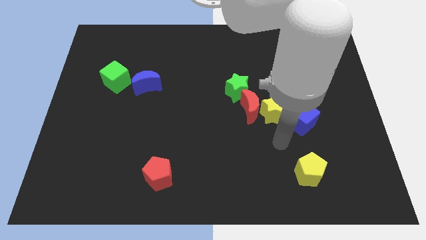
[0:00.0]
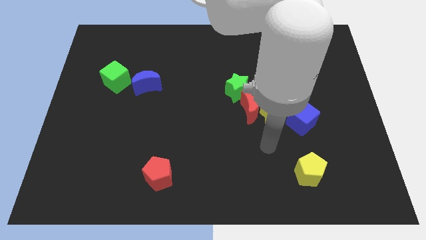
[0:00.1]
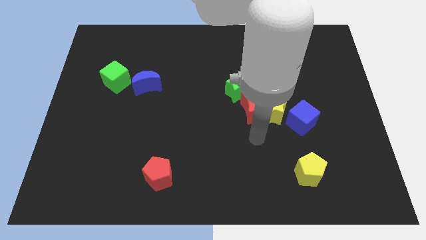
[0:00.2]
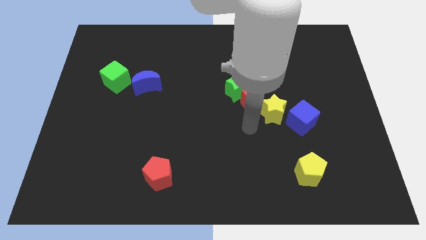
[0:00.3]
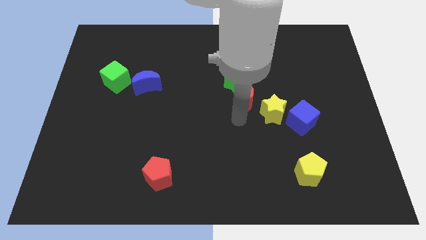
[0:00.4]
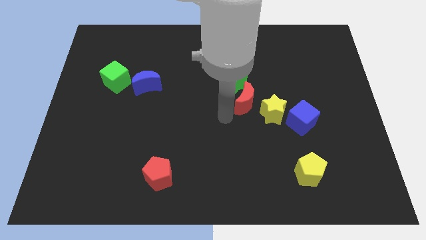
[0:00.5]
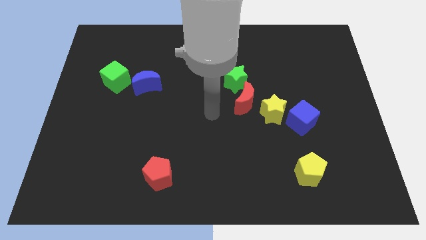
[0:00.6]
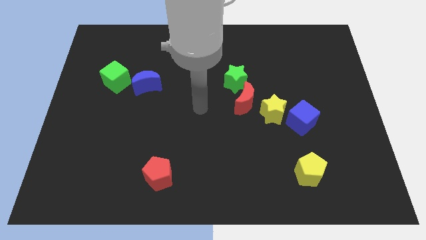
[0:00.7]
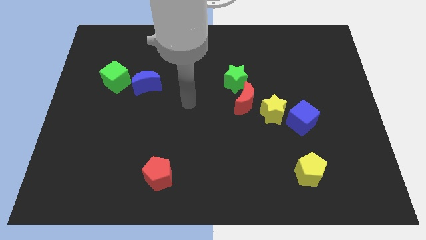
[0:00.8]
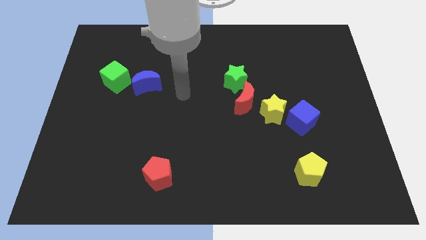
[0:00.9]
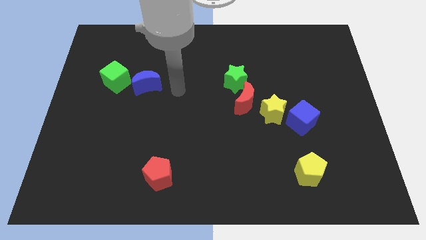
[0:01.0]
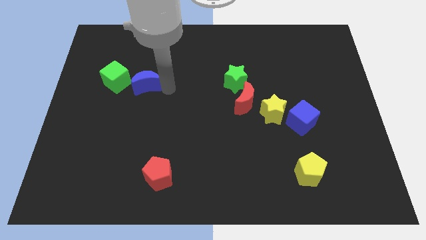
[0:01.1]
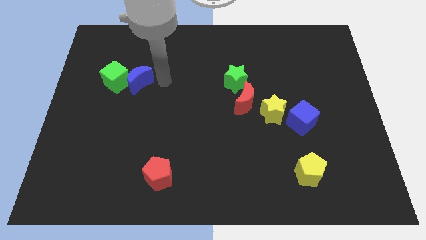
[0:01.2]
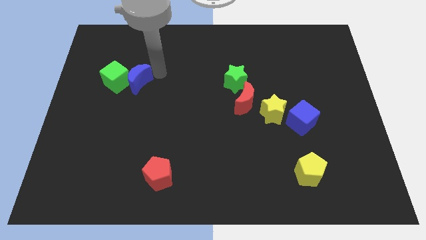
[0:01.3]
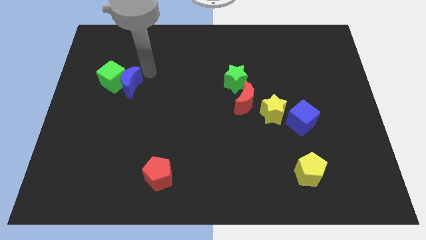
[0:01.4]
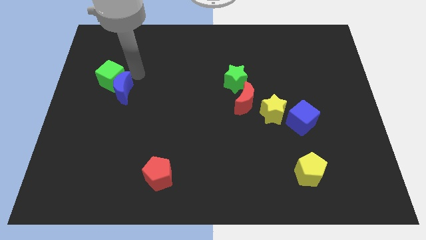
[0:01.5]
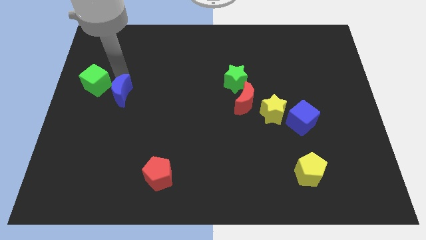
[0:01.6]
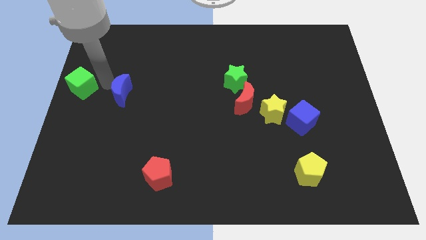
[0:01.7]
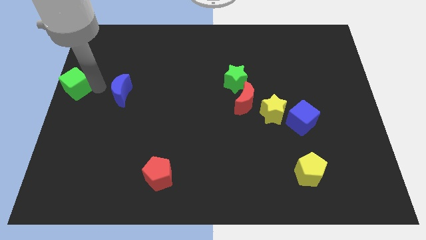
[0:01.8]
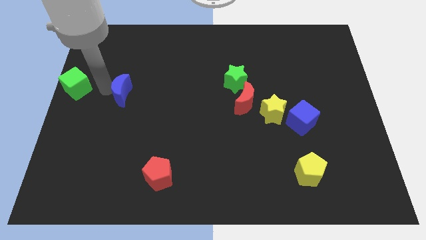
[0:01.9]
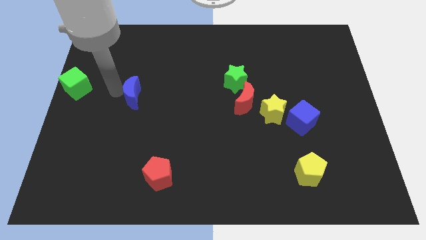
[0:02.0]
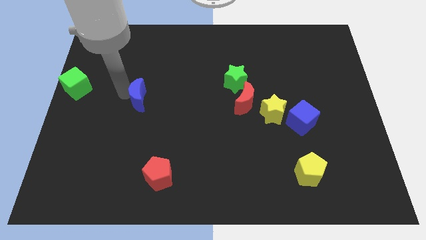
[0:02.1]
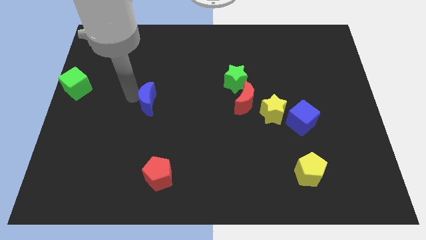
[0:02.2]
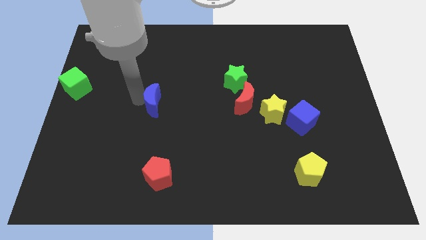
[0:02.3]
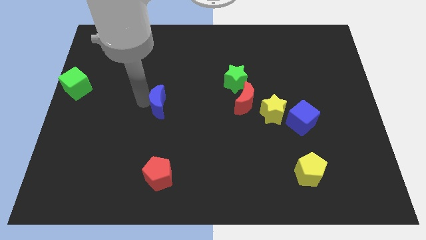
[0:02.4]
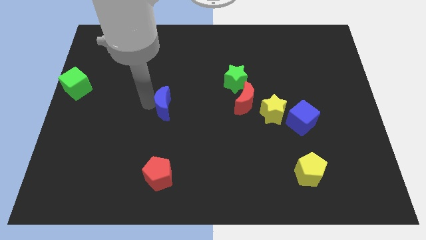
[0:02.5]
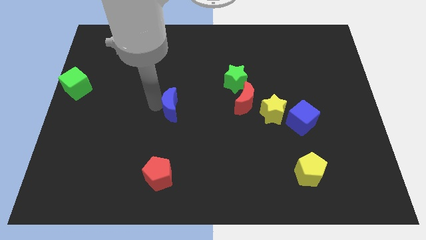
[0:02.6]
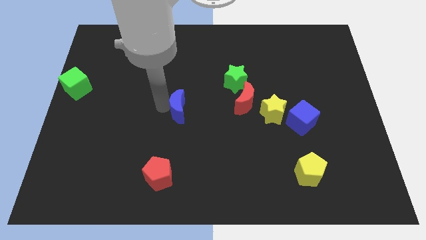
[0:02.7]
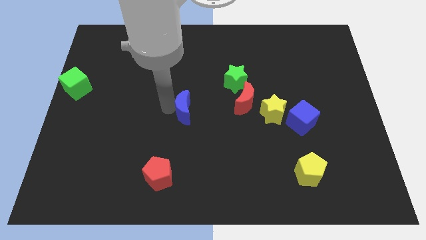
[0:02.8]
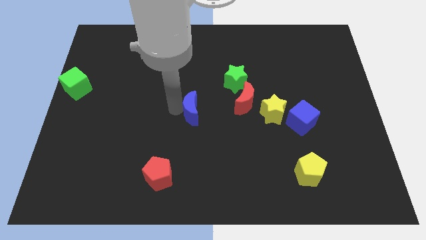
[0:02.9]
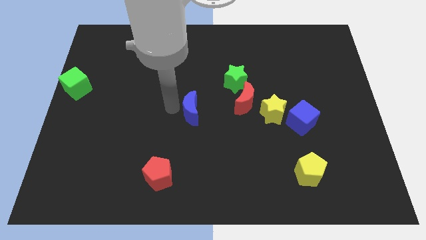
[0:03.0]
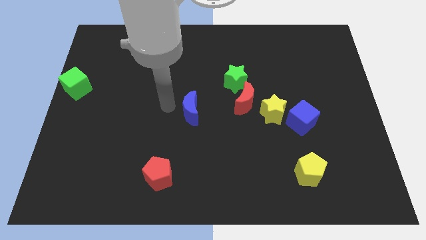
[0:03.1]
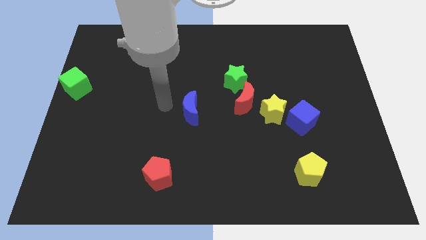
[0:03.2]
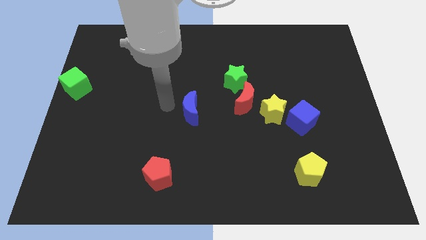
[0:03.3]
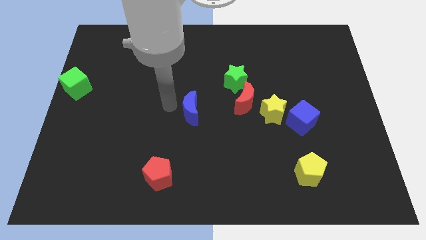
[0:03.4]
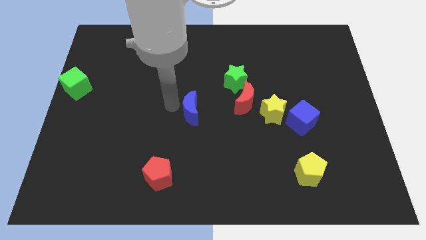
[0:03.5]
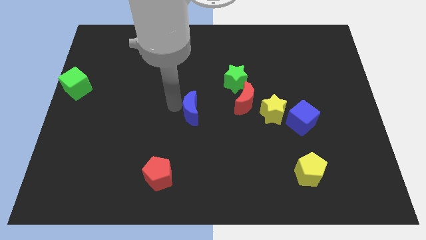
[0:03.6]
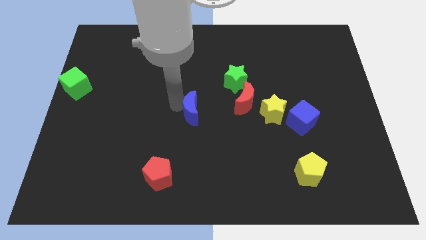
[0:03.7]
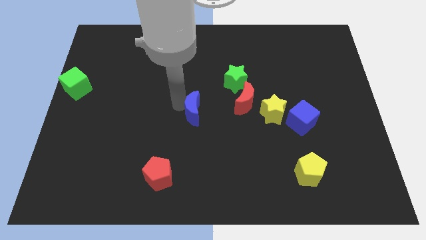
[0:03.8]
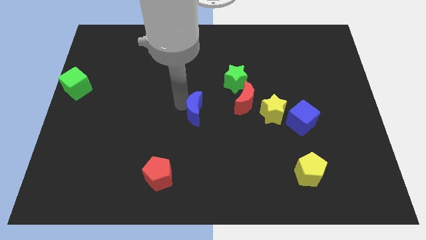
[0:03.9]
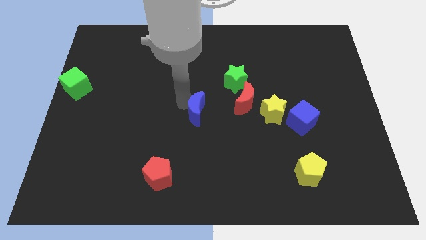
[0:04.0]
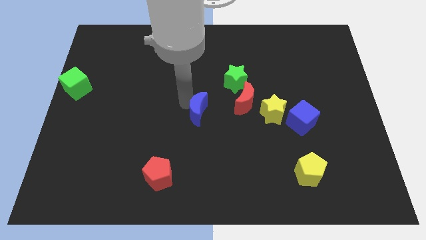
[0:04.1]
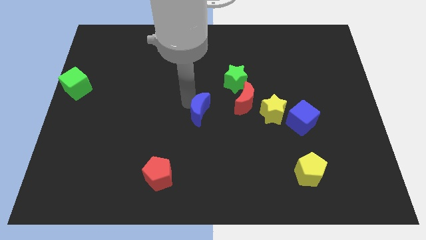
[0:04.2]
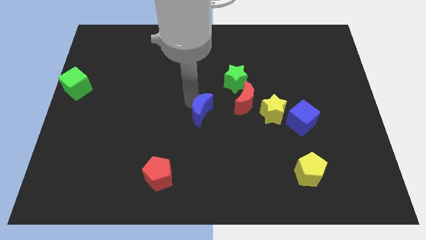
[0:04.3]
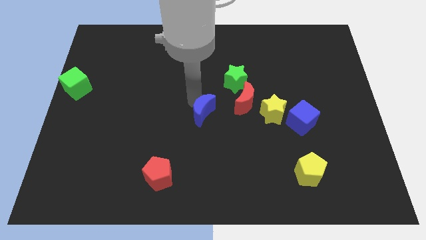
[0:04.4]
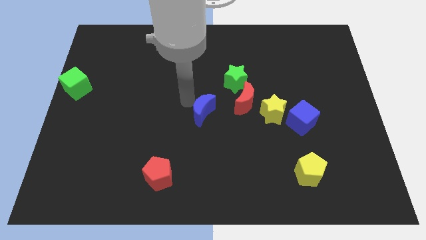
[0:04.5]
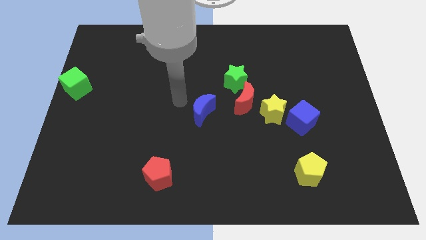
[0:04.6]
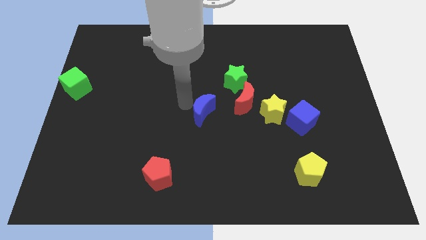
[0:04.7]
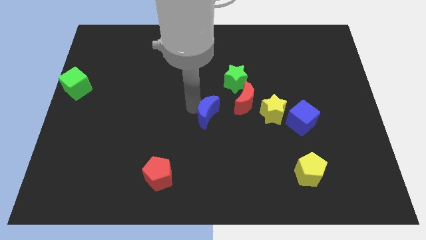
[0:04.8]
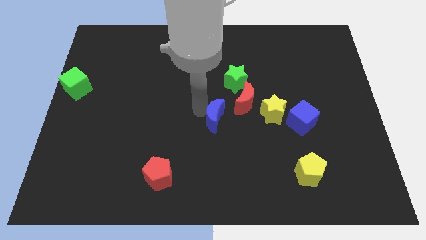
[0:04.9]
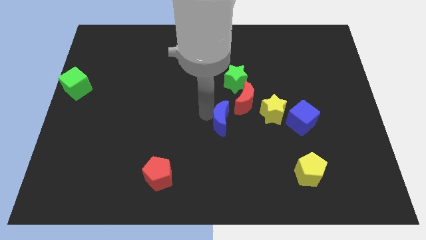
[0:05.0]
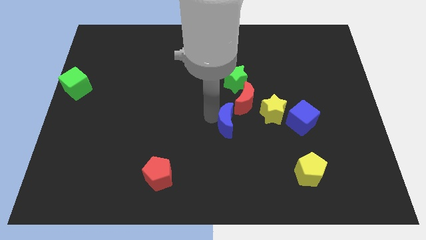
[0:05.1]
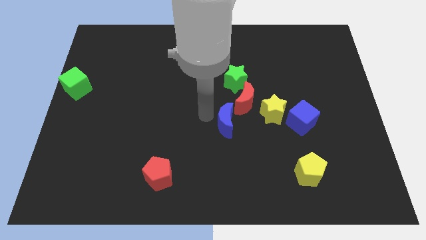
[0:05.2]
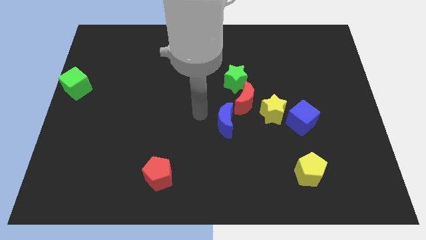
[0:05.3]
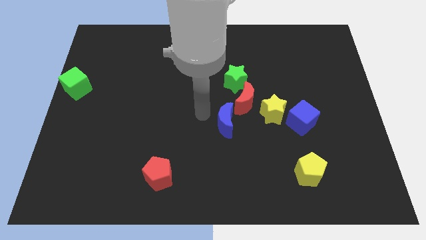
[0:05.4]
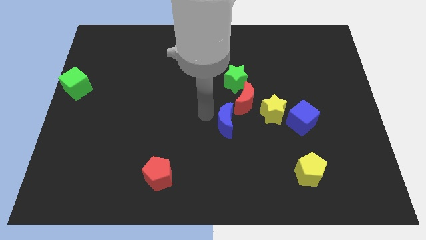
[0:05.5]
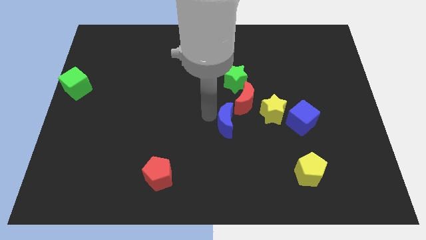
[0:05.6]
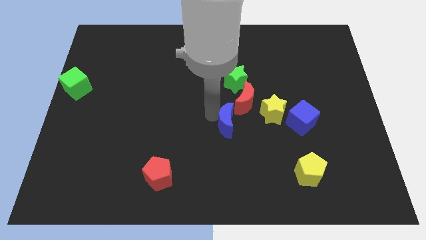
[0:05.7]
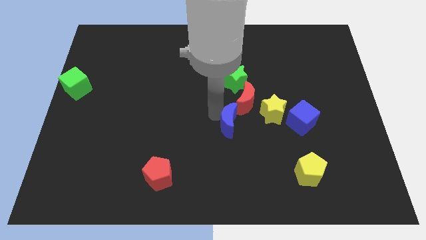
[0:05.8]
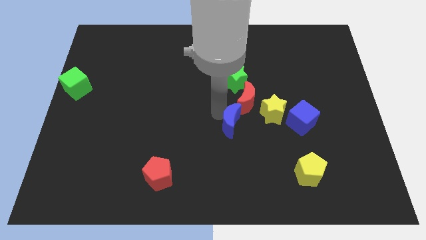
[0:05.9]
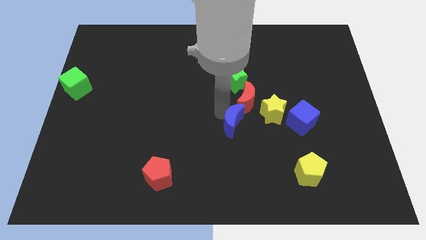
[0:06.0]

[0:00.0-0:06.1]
put the blue moon to the bottom left side of the yellow star

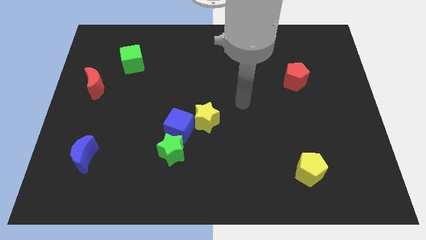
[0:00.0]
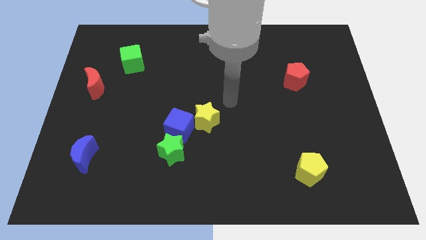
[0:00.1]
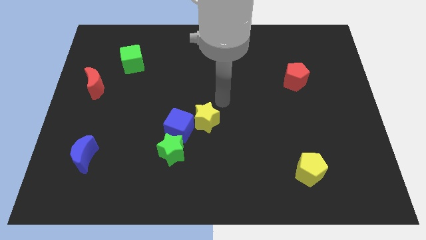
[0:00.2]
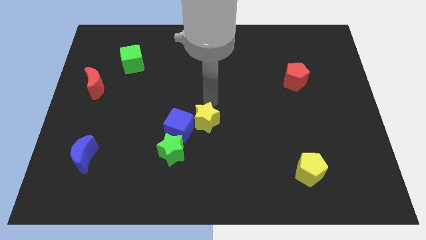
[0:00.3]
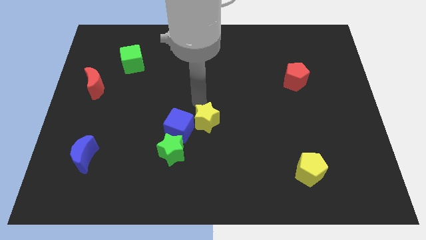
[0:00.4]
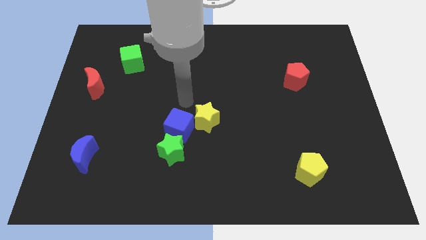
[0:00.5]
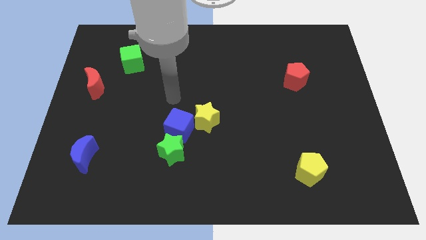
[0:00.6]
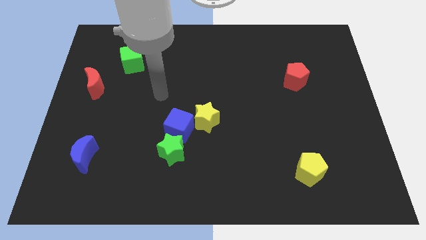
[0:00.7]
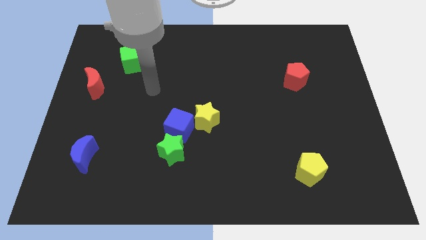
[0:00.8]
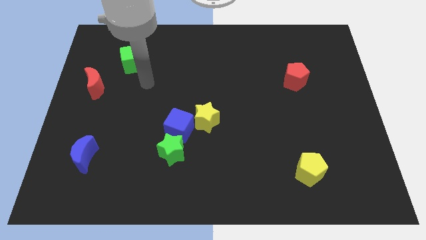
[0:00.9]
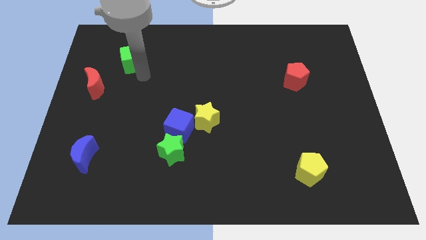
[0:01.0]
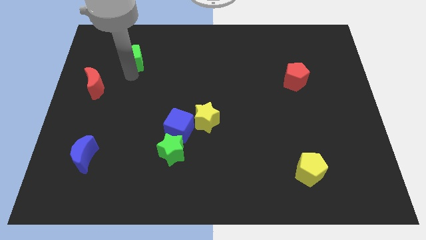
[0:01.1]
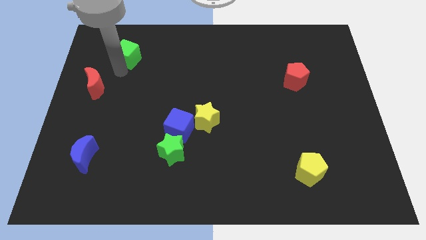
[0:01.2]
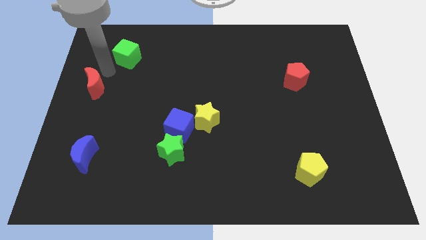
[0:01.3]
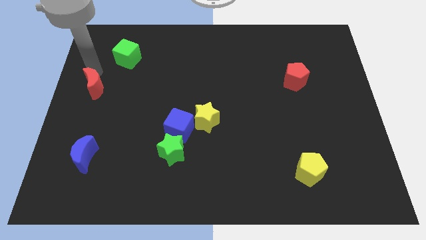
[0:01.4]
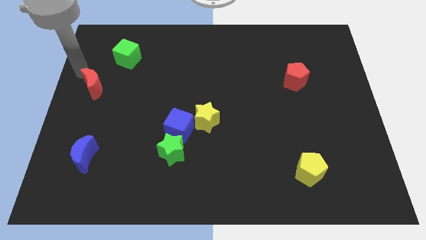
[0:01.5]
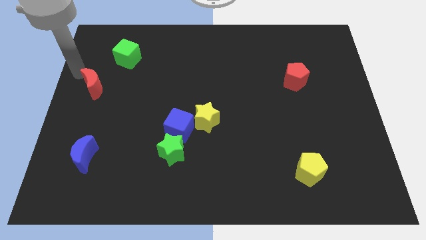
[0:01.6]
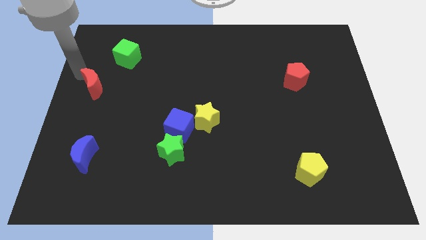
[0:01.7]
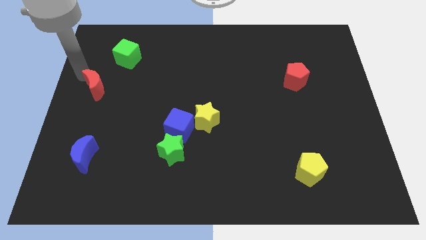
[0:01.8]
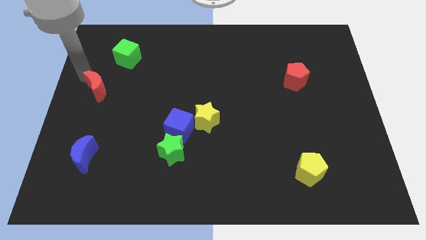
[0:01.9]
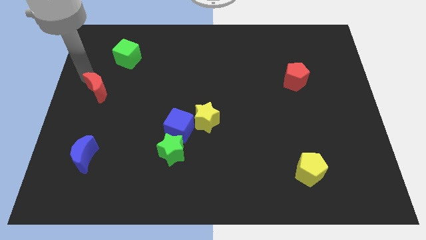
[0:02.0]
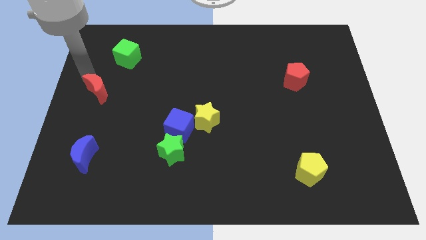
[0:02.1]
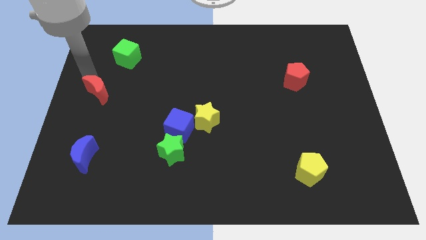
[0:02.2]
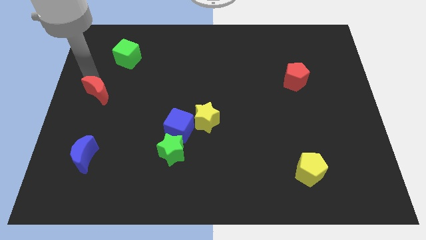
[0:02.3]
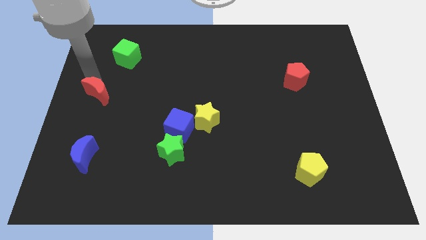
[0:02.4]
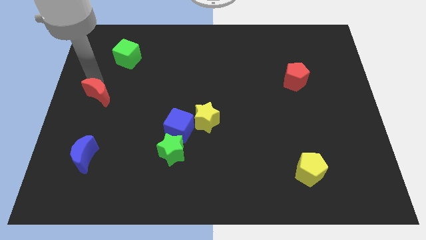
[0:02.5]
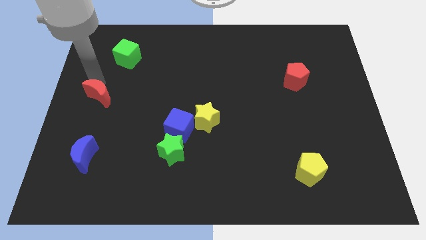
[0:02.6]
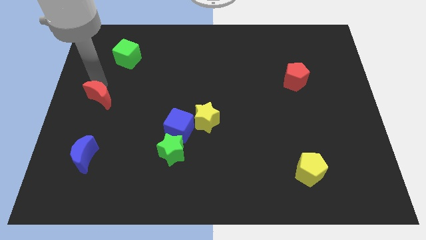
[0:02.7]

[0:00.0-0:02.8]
push the red moon to the top of the blue moon
